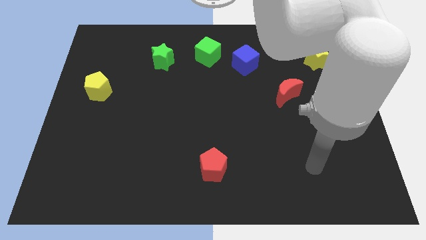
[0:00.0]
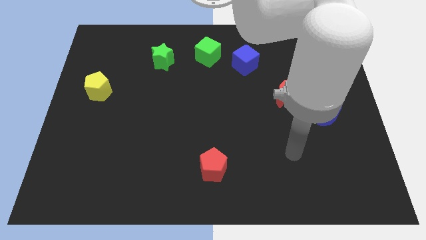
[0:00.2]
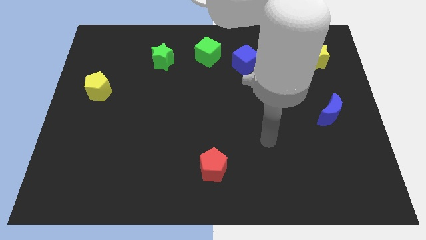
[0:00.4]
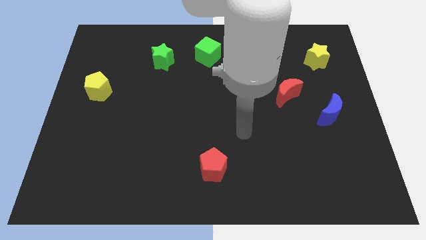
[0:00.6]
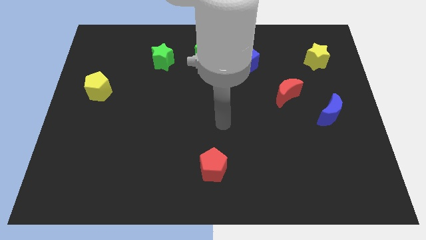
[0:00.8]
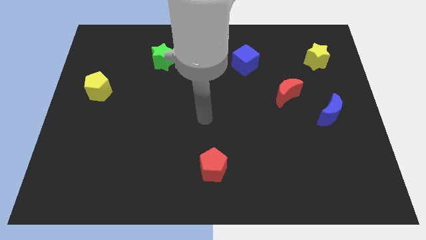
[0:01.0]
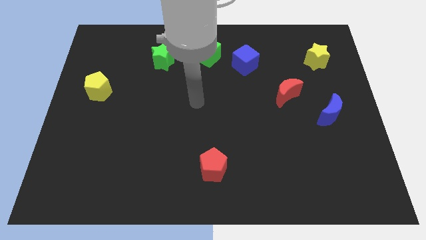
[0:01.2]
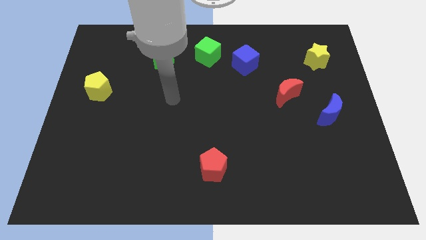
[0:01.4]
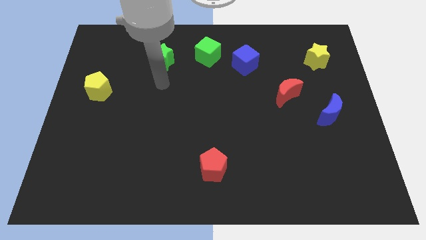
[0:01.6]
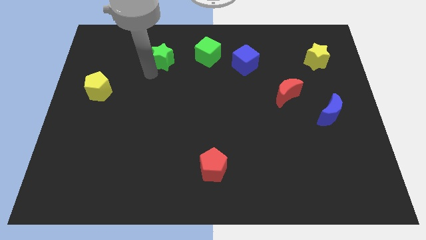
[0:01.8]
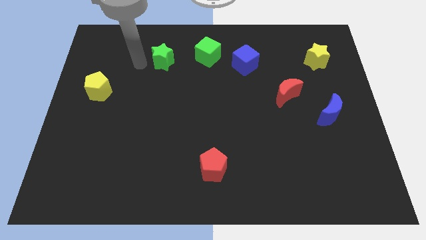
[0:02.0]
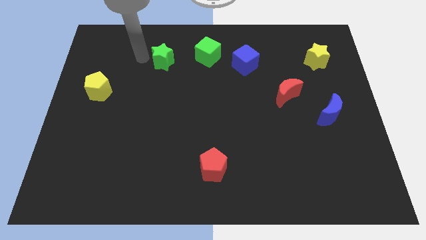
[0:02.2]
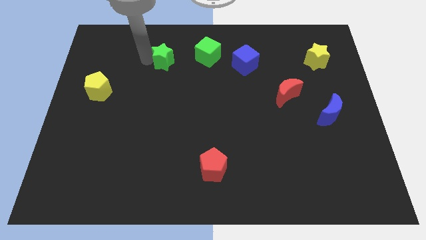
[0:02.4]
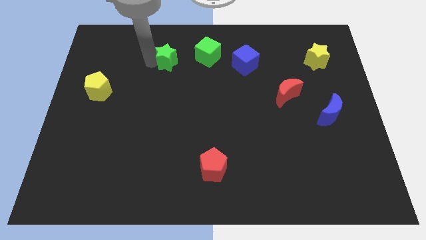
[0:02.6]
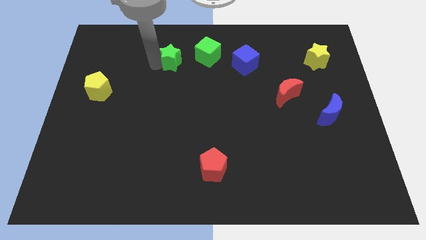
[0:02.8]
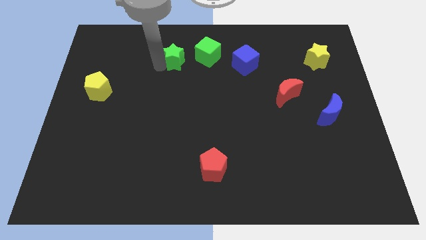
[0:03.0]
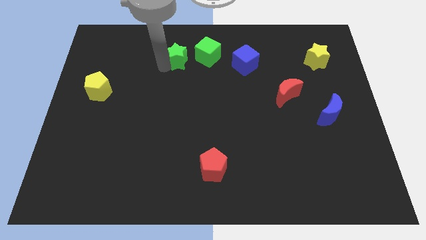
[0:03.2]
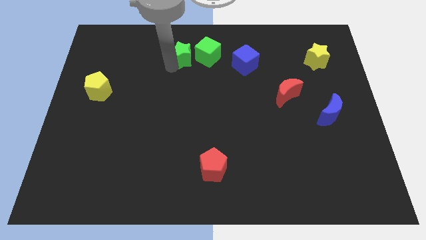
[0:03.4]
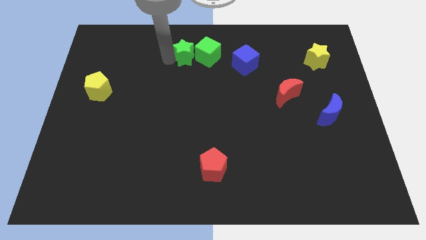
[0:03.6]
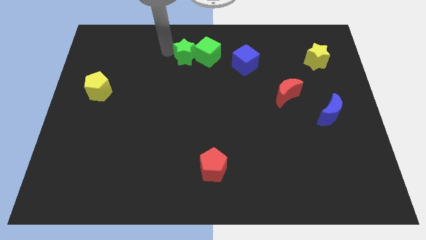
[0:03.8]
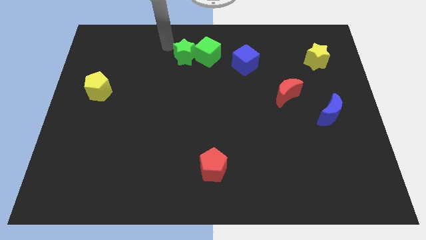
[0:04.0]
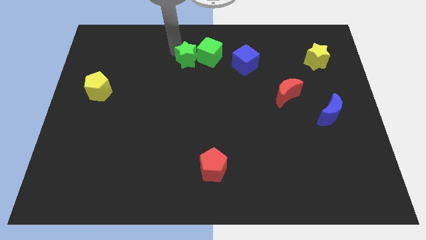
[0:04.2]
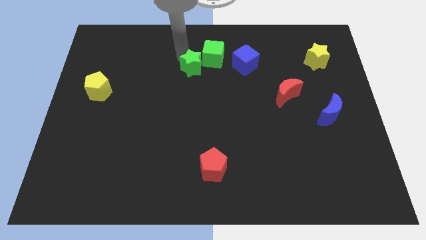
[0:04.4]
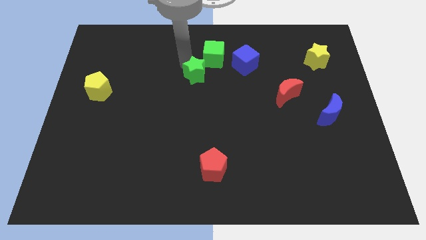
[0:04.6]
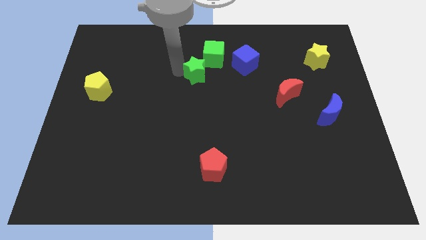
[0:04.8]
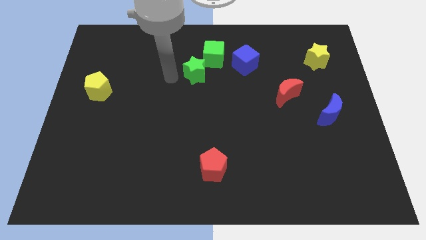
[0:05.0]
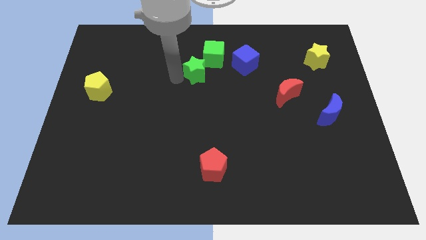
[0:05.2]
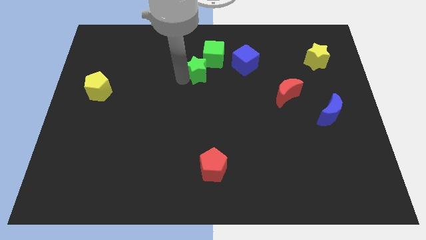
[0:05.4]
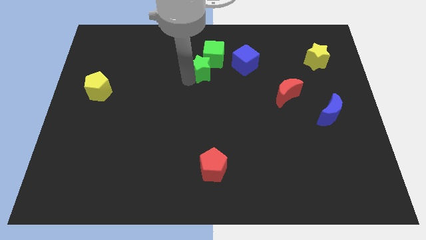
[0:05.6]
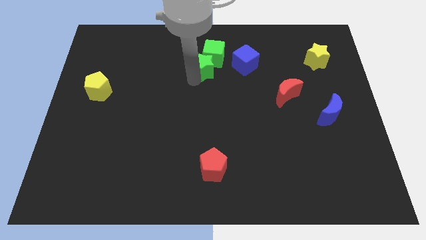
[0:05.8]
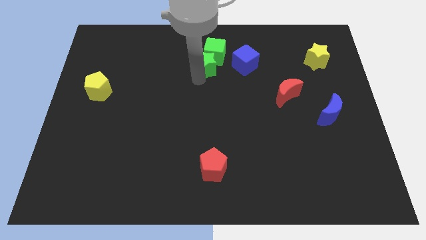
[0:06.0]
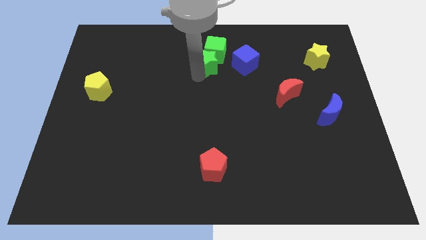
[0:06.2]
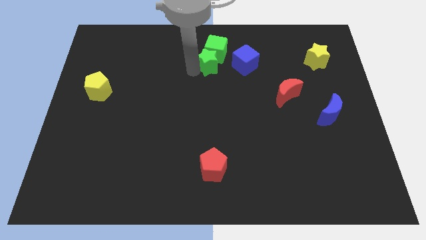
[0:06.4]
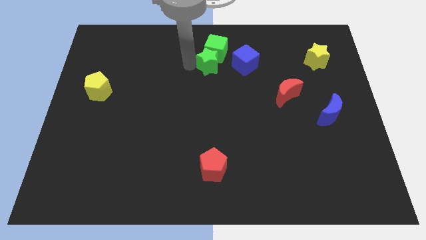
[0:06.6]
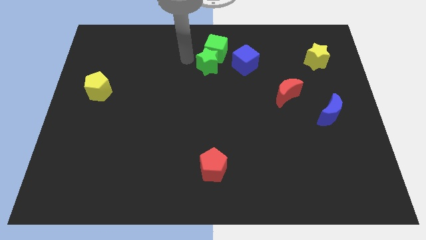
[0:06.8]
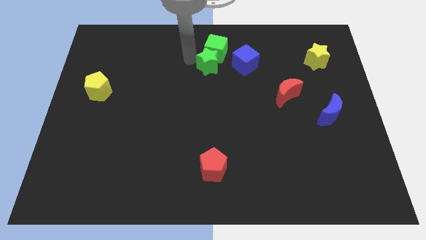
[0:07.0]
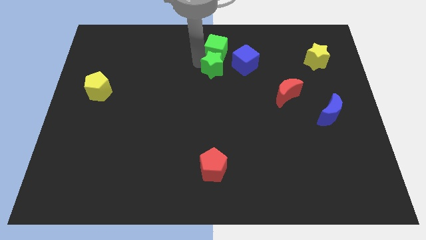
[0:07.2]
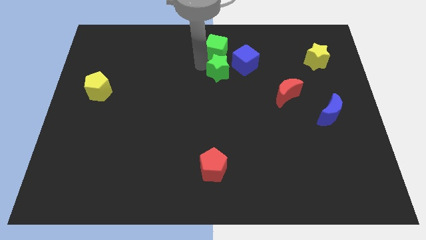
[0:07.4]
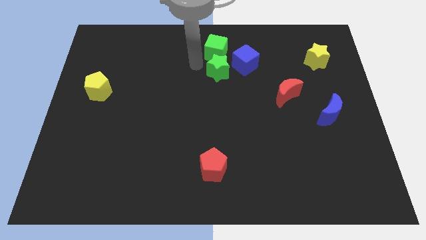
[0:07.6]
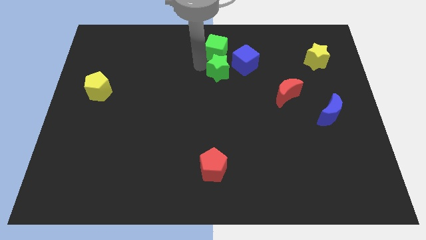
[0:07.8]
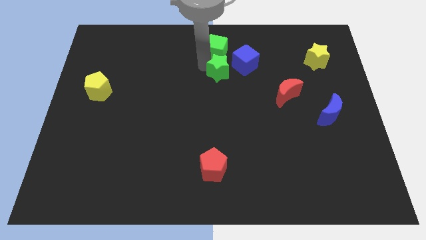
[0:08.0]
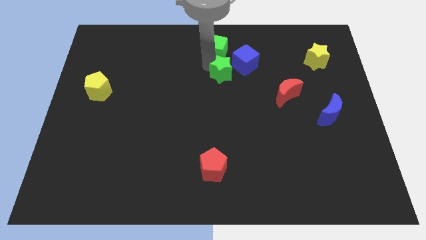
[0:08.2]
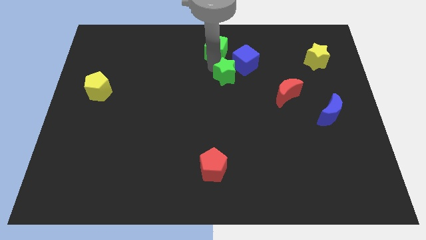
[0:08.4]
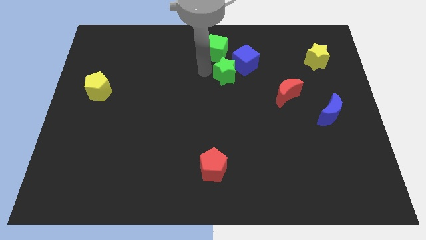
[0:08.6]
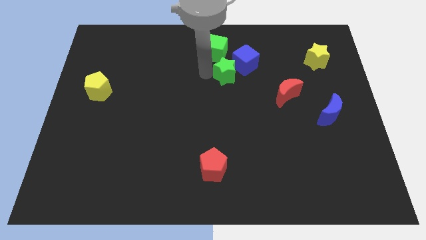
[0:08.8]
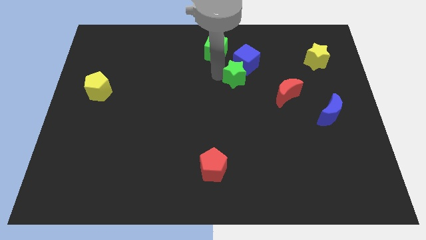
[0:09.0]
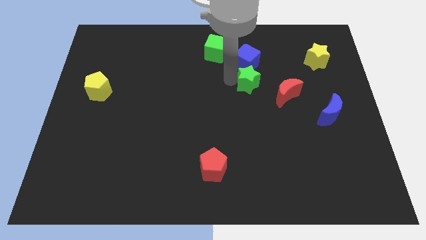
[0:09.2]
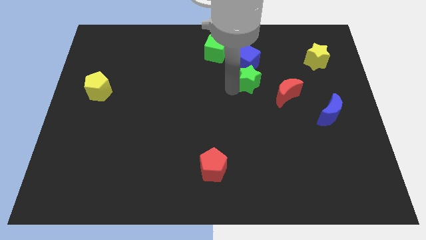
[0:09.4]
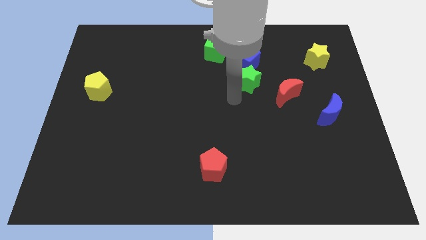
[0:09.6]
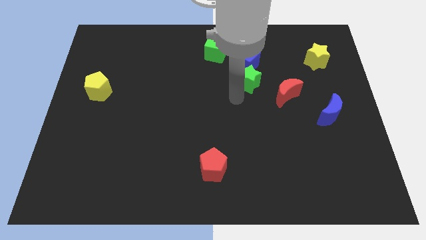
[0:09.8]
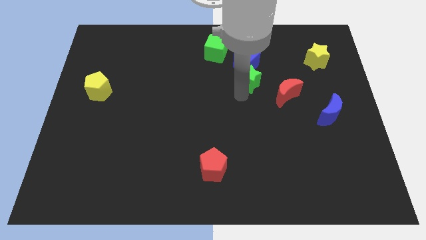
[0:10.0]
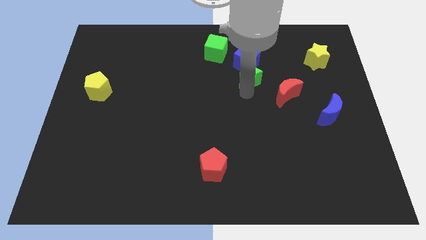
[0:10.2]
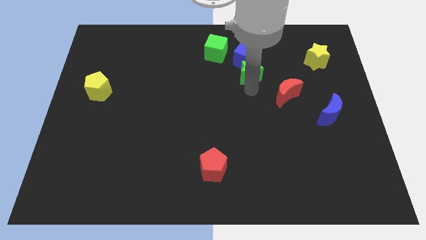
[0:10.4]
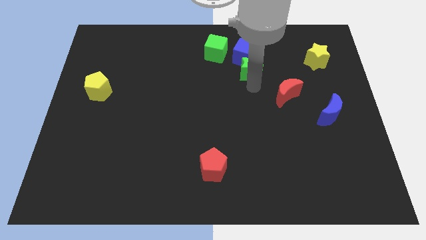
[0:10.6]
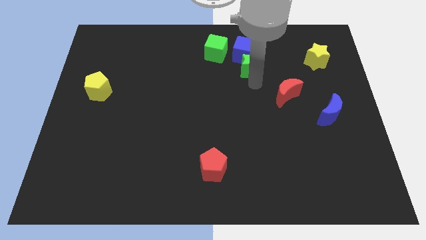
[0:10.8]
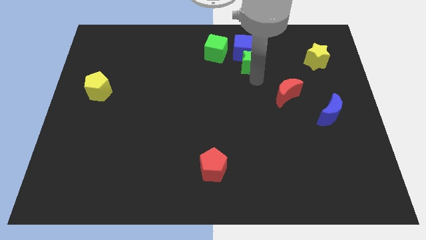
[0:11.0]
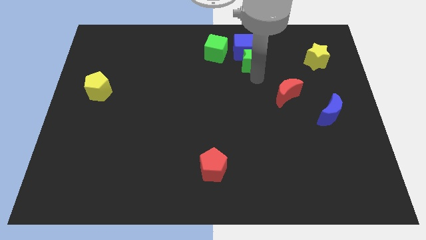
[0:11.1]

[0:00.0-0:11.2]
put the green star to the right of the green cube

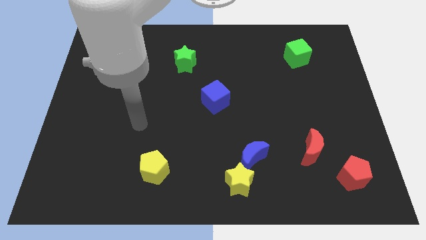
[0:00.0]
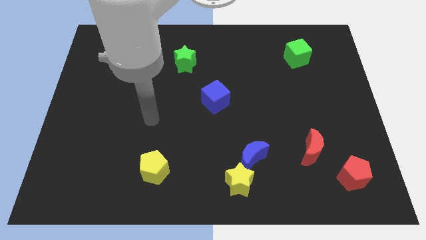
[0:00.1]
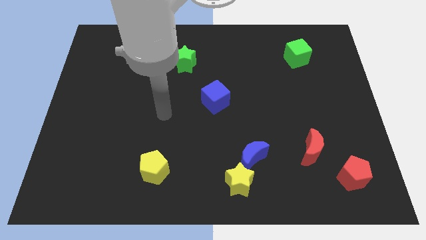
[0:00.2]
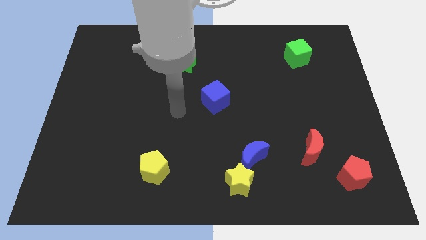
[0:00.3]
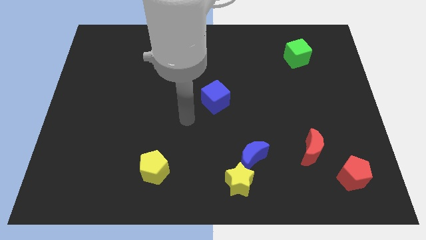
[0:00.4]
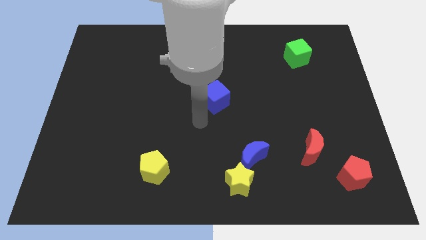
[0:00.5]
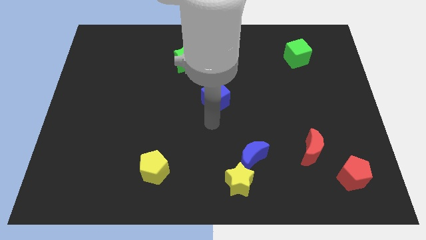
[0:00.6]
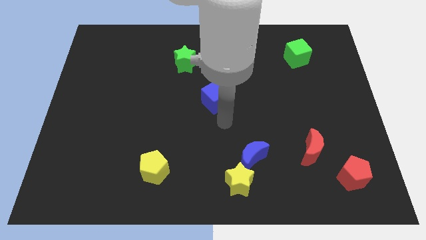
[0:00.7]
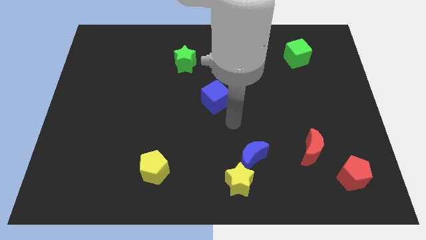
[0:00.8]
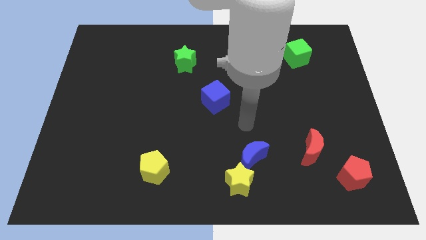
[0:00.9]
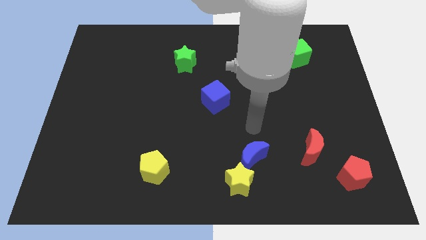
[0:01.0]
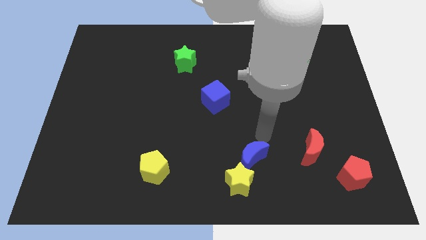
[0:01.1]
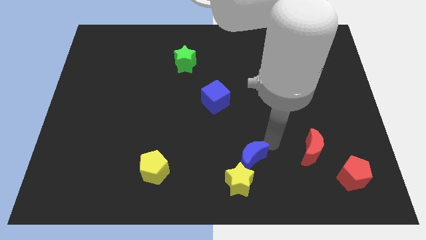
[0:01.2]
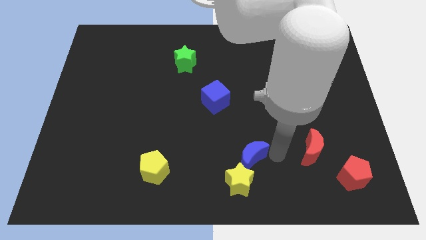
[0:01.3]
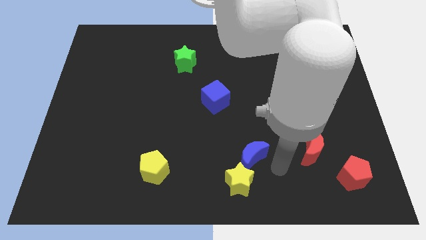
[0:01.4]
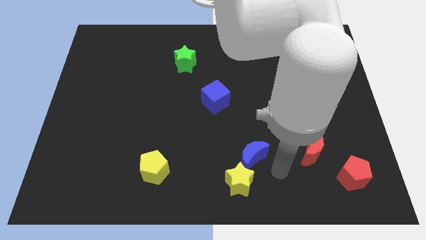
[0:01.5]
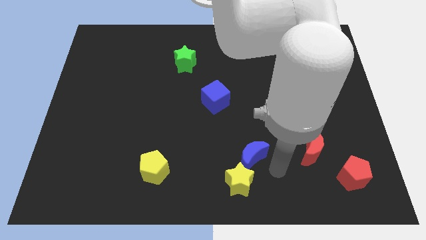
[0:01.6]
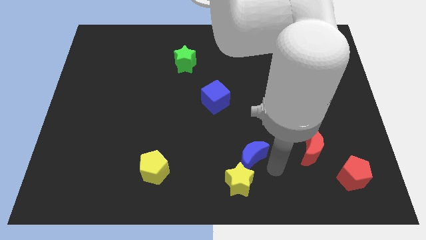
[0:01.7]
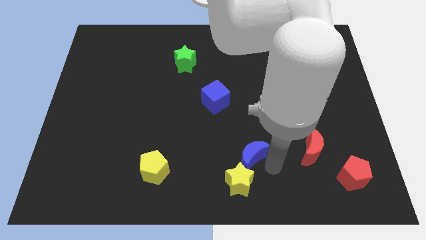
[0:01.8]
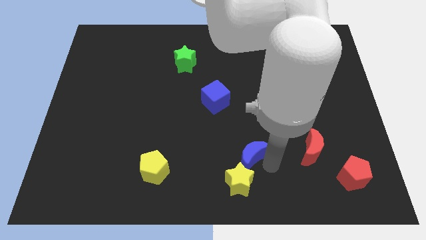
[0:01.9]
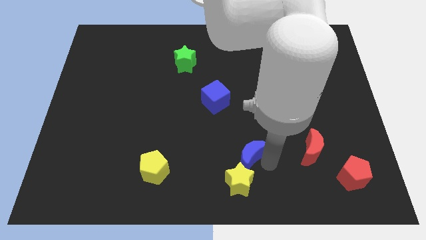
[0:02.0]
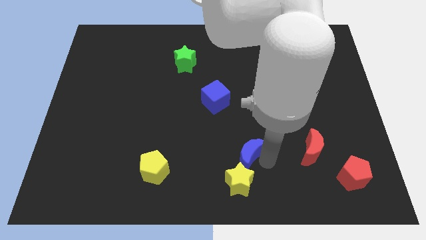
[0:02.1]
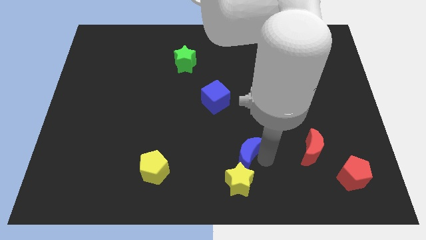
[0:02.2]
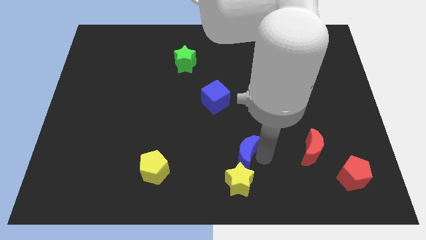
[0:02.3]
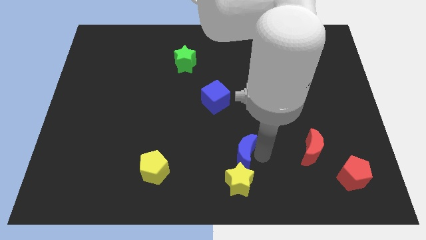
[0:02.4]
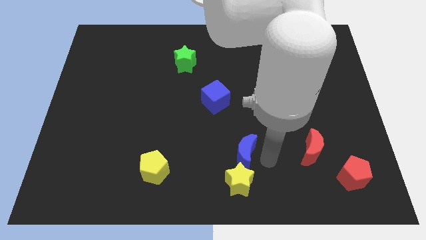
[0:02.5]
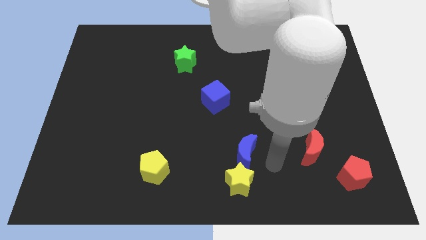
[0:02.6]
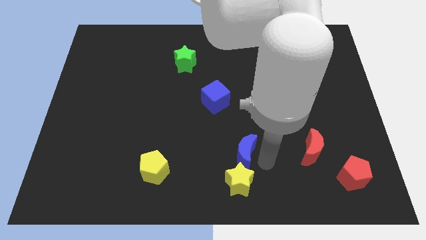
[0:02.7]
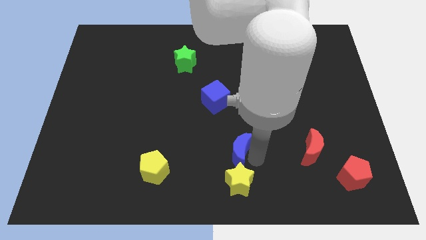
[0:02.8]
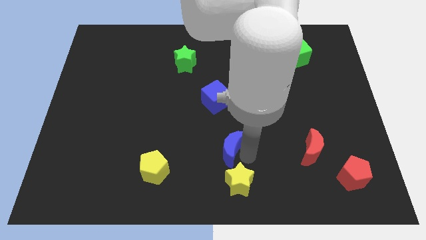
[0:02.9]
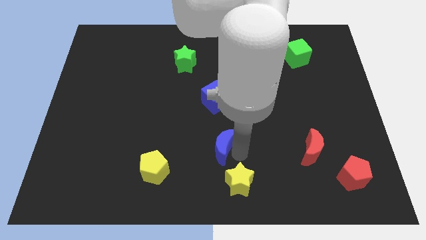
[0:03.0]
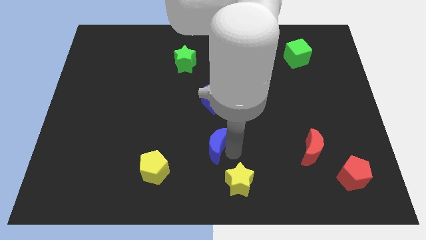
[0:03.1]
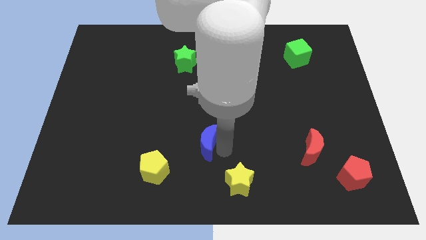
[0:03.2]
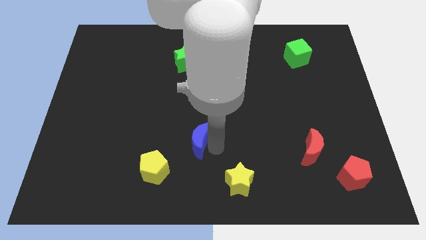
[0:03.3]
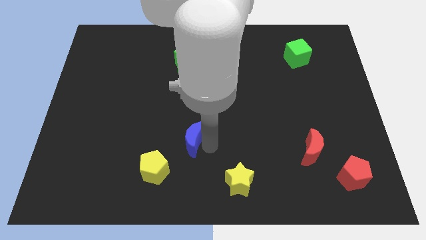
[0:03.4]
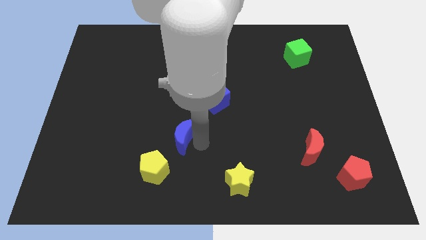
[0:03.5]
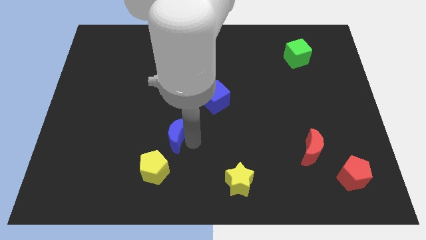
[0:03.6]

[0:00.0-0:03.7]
push the blue moon above the yellow pentagon
